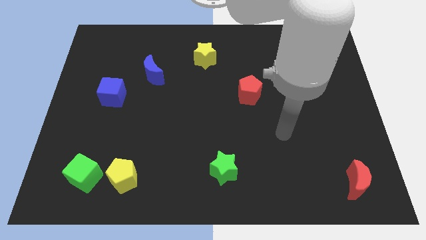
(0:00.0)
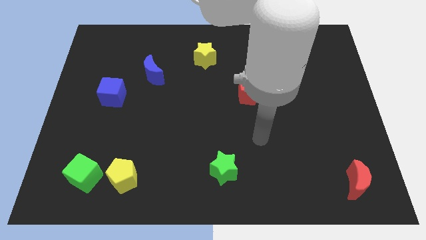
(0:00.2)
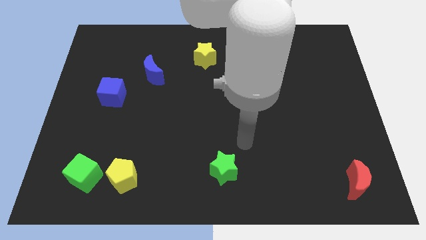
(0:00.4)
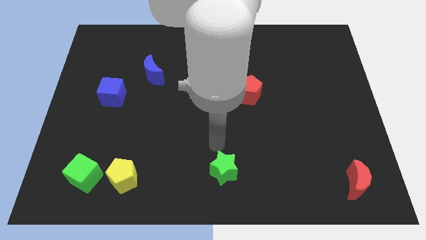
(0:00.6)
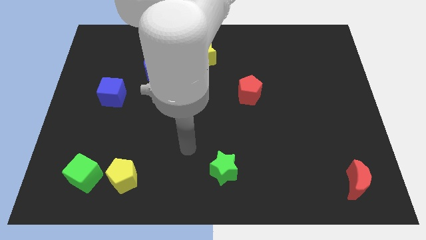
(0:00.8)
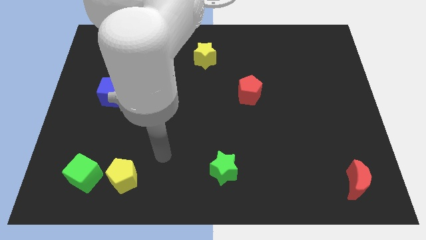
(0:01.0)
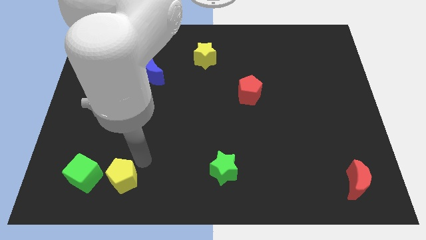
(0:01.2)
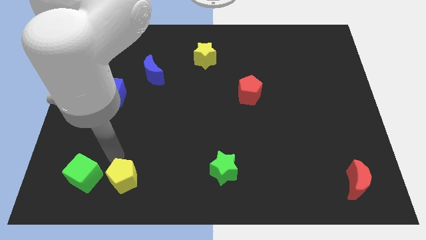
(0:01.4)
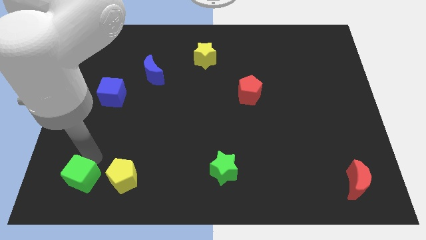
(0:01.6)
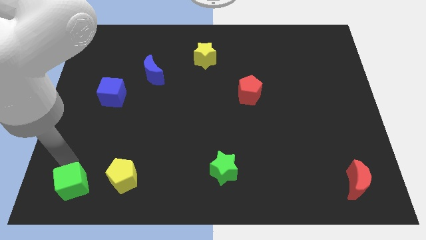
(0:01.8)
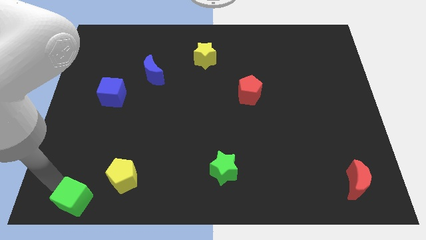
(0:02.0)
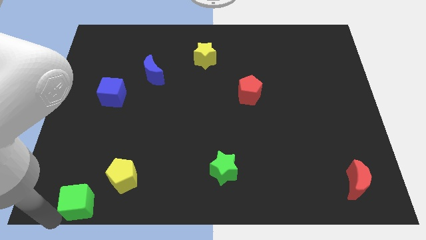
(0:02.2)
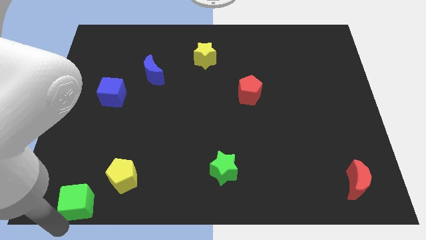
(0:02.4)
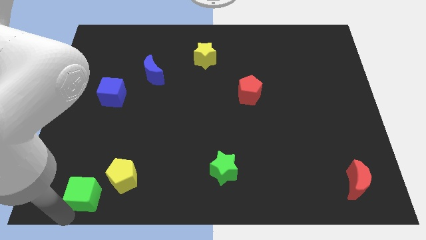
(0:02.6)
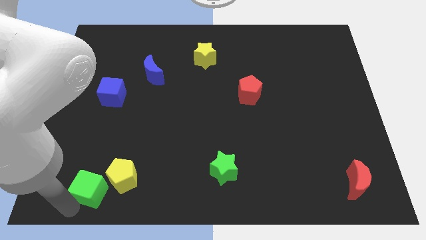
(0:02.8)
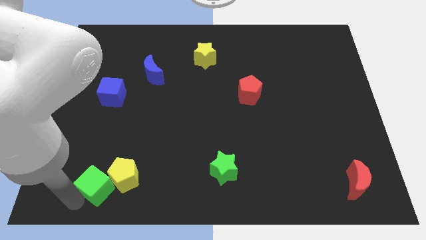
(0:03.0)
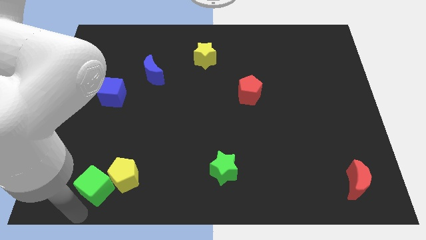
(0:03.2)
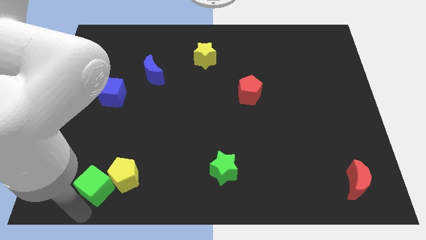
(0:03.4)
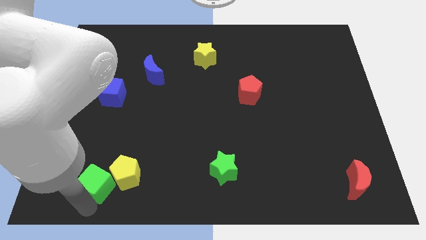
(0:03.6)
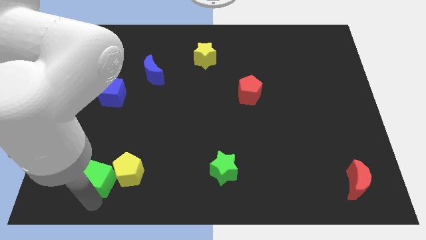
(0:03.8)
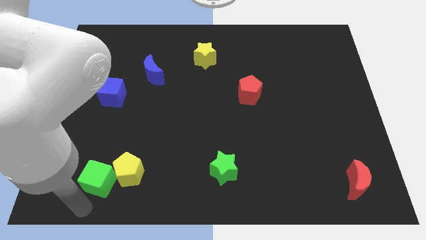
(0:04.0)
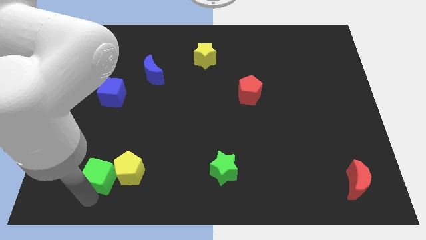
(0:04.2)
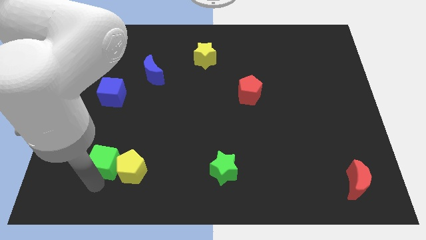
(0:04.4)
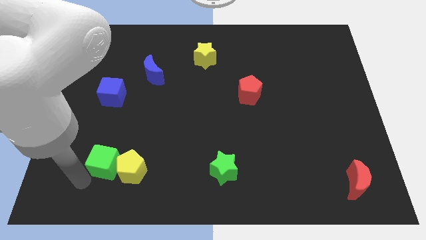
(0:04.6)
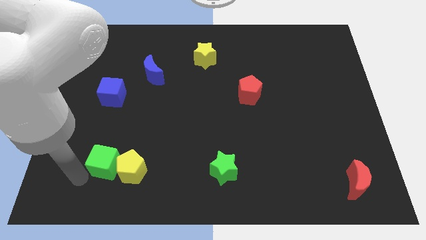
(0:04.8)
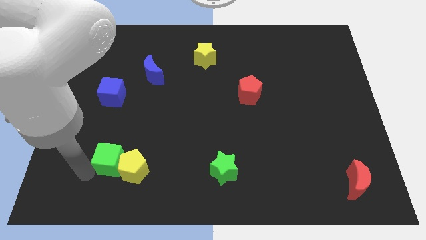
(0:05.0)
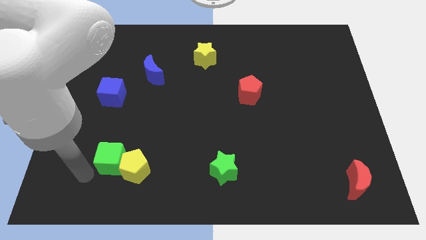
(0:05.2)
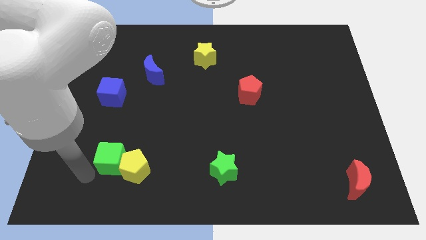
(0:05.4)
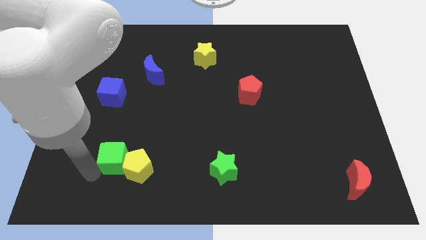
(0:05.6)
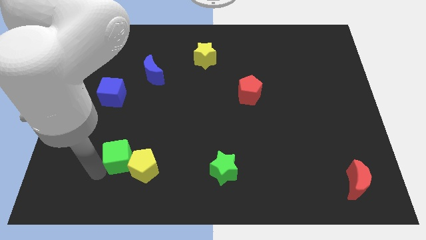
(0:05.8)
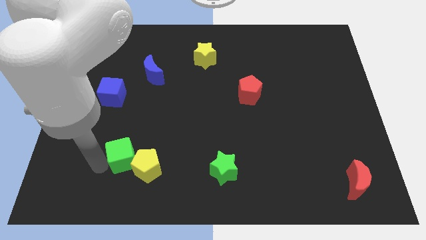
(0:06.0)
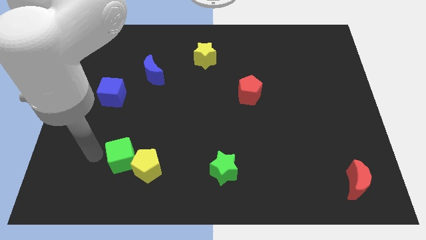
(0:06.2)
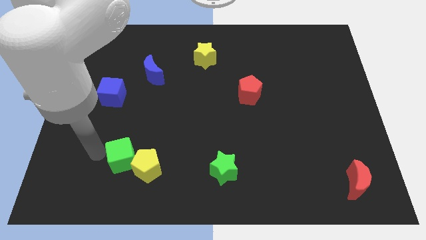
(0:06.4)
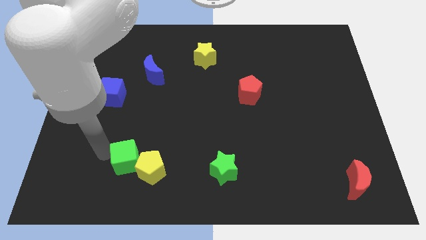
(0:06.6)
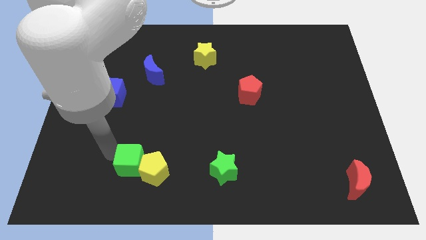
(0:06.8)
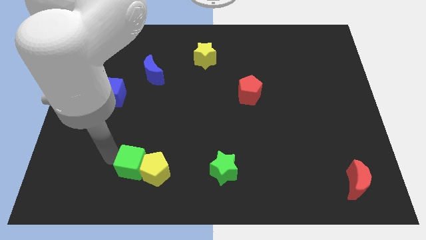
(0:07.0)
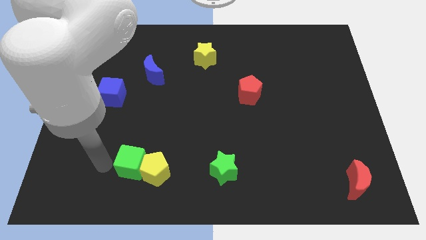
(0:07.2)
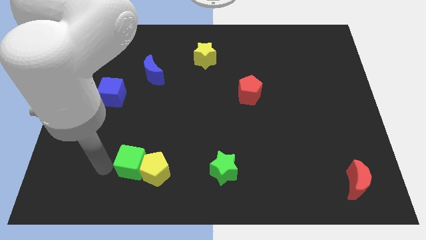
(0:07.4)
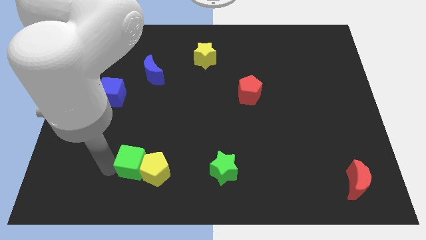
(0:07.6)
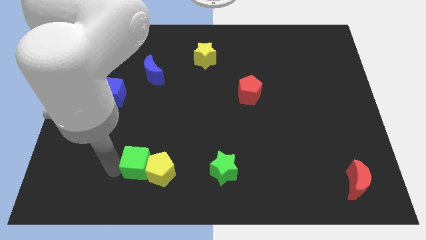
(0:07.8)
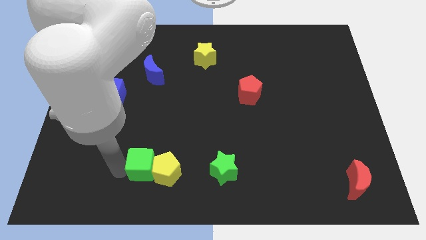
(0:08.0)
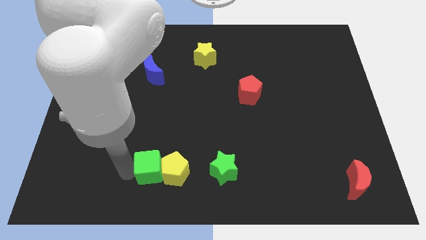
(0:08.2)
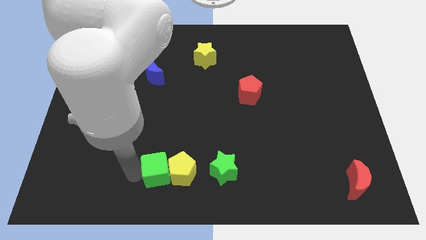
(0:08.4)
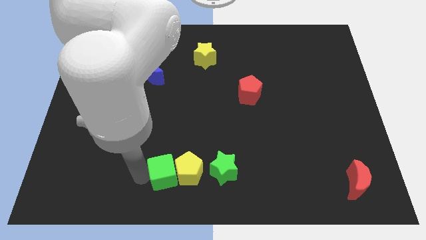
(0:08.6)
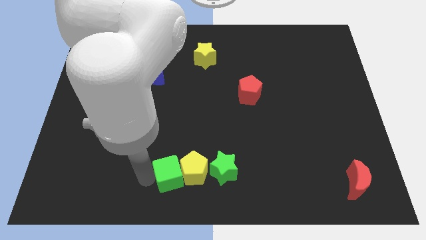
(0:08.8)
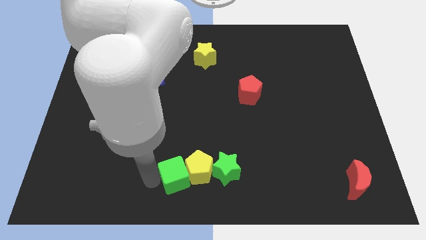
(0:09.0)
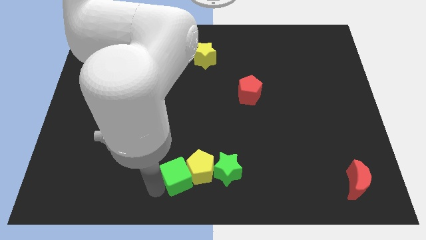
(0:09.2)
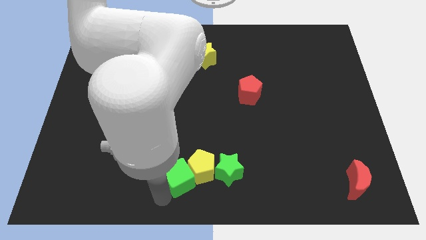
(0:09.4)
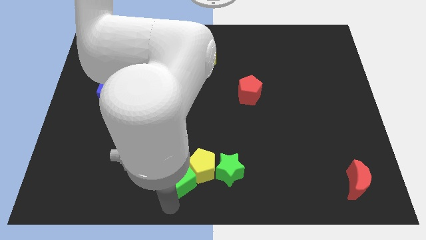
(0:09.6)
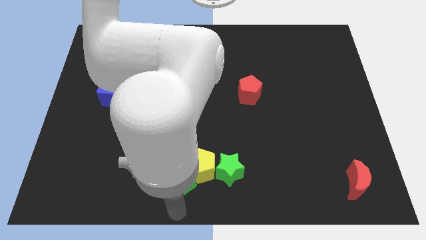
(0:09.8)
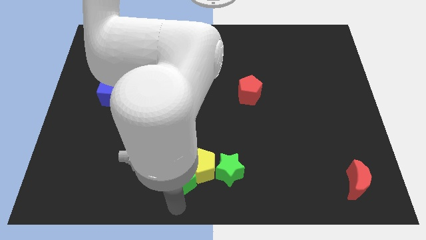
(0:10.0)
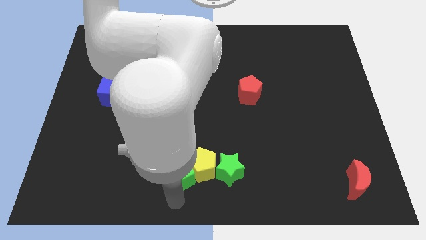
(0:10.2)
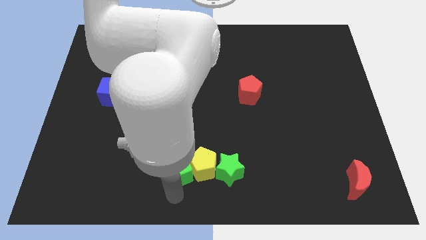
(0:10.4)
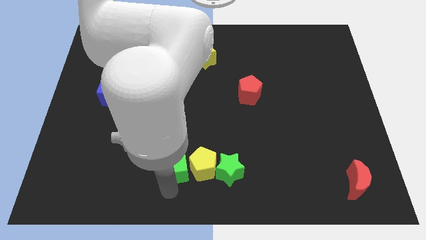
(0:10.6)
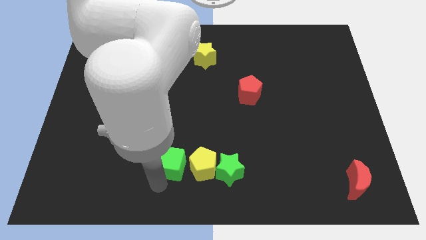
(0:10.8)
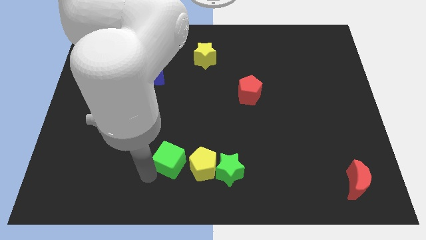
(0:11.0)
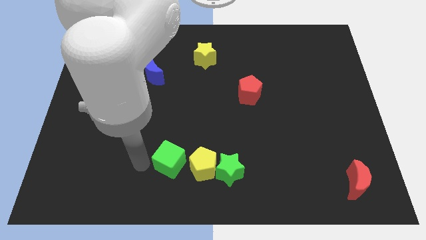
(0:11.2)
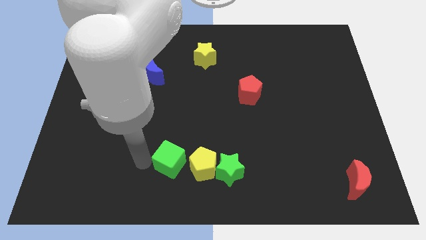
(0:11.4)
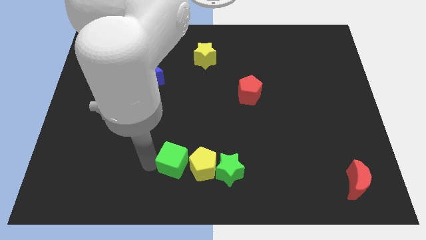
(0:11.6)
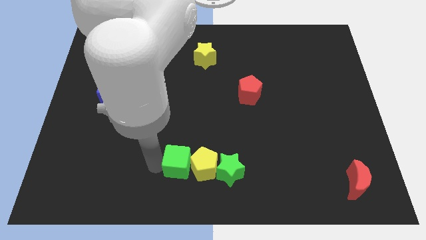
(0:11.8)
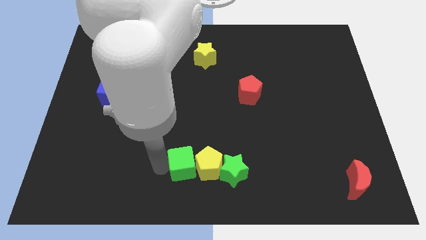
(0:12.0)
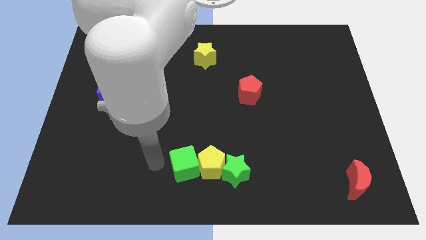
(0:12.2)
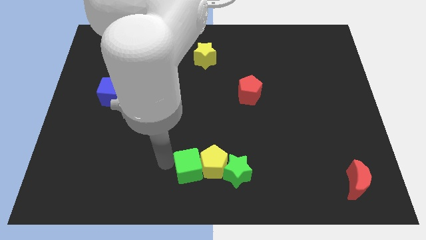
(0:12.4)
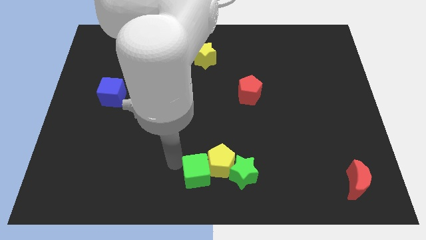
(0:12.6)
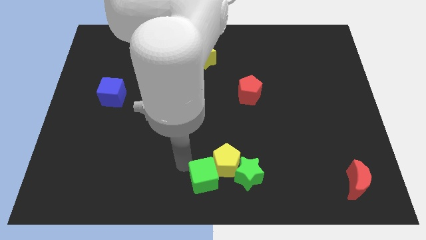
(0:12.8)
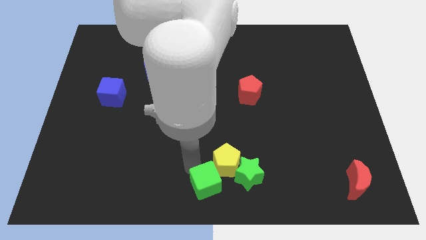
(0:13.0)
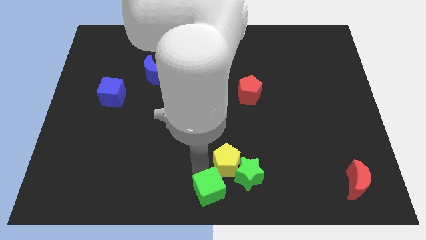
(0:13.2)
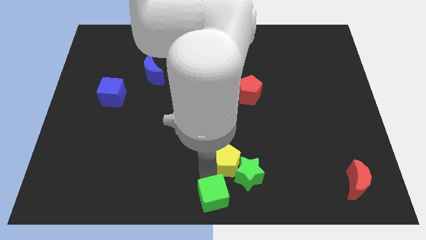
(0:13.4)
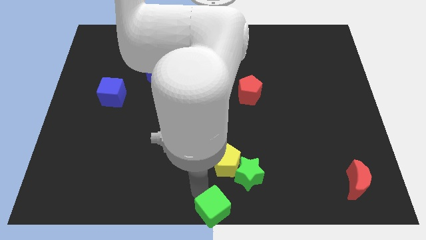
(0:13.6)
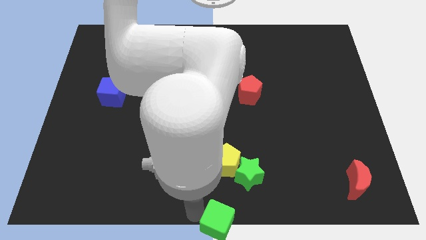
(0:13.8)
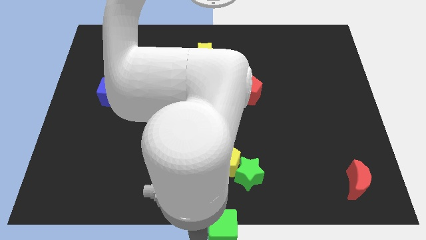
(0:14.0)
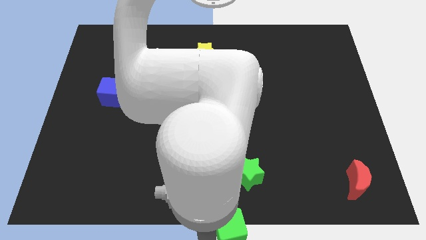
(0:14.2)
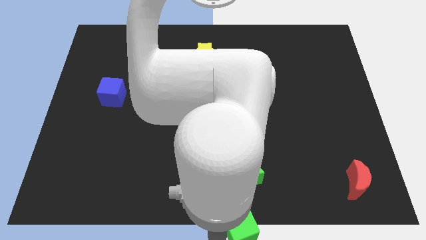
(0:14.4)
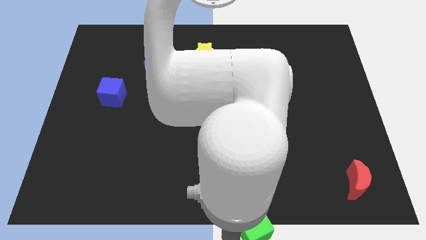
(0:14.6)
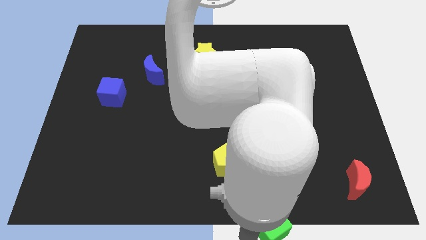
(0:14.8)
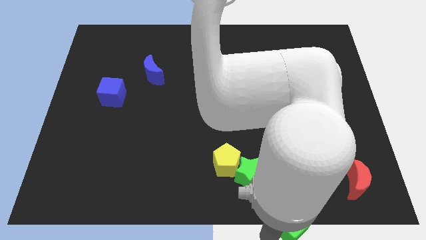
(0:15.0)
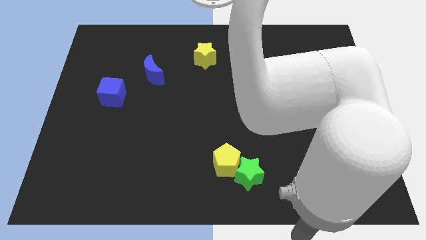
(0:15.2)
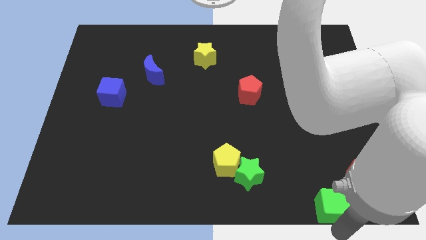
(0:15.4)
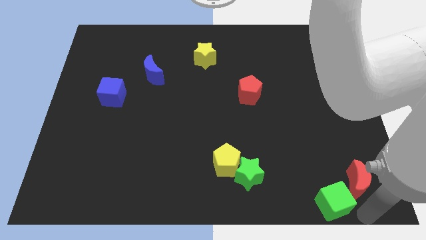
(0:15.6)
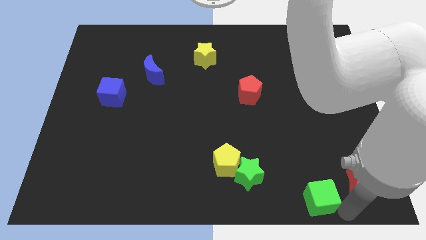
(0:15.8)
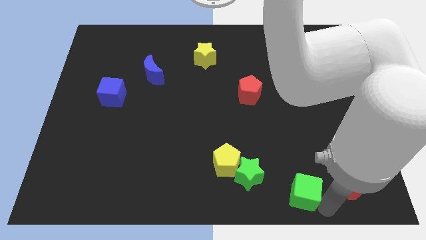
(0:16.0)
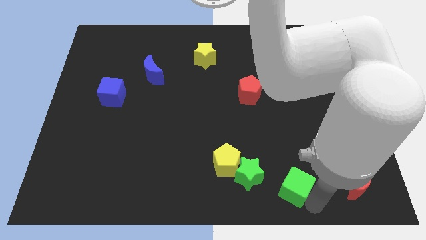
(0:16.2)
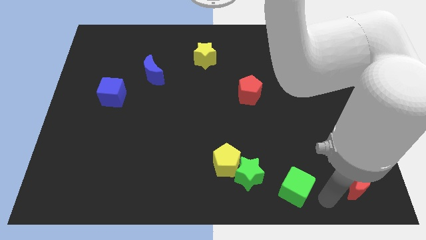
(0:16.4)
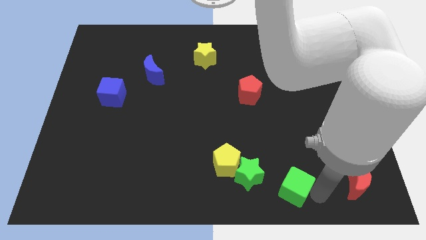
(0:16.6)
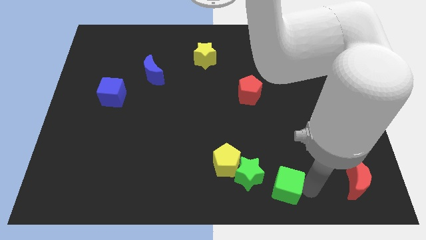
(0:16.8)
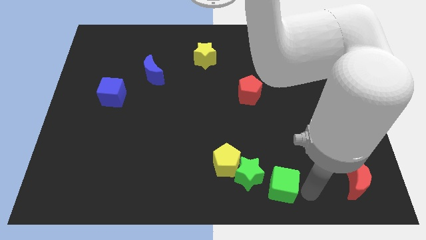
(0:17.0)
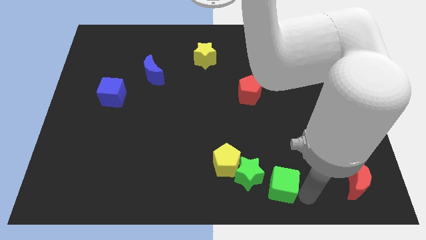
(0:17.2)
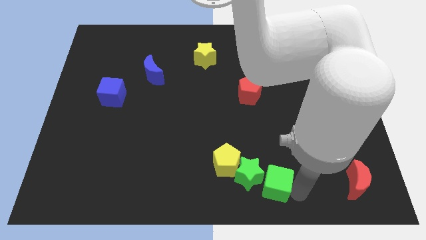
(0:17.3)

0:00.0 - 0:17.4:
put the green cube to the green star
